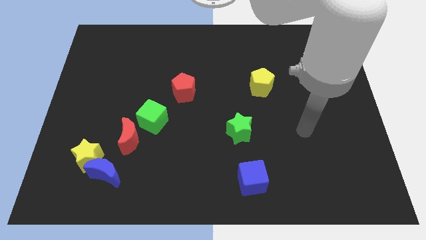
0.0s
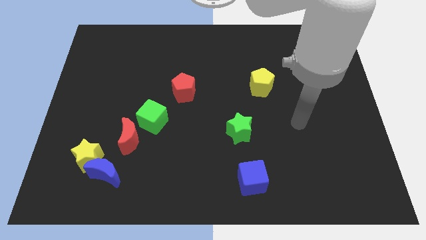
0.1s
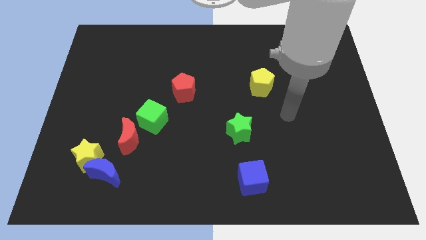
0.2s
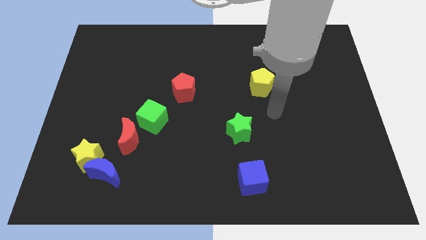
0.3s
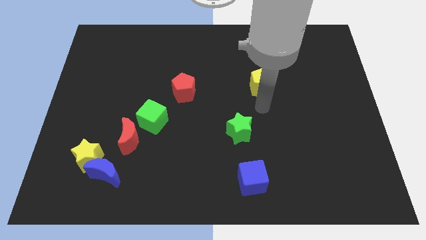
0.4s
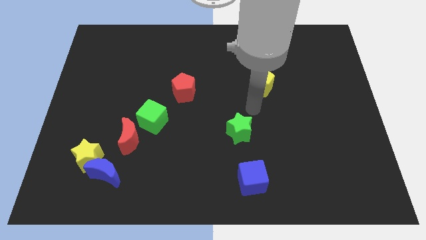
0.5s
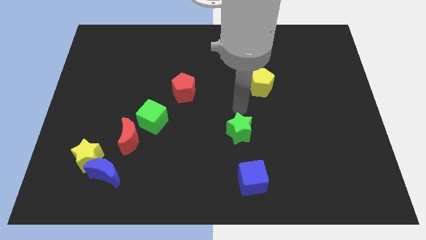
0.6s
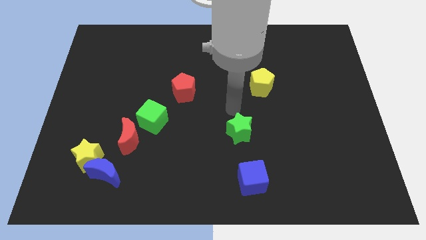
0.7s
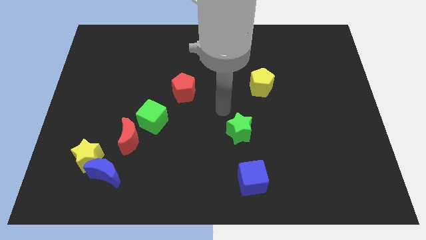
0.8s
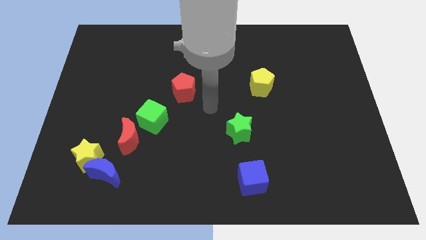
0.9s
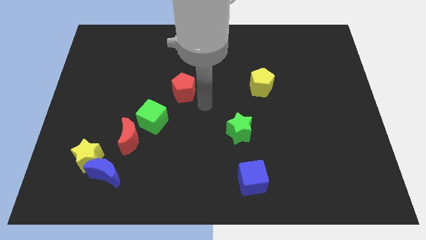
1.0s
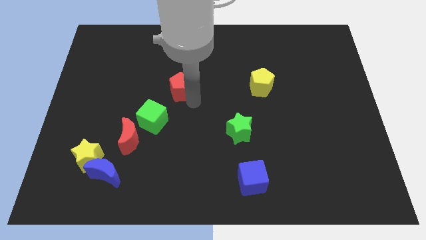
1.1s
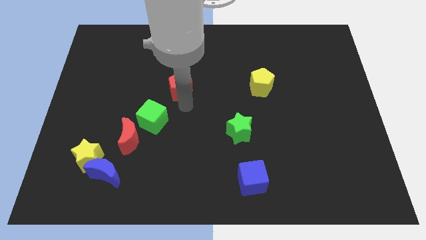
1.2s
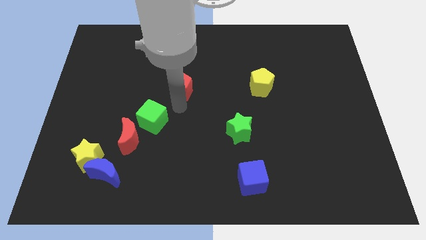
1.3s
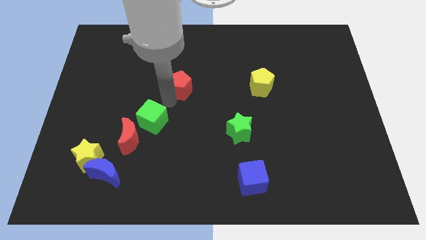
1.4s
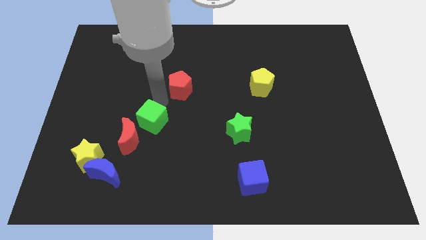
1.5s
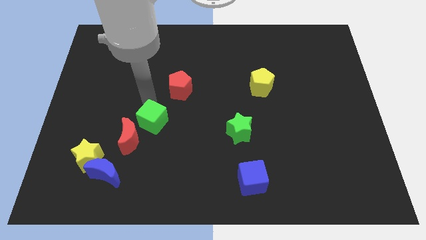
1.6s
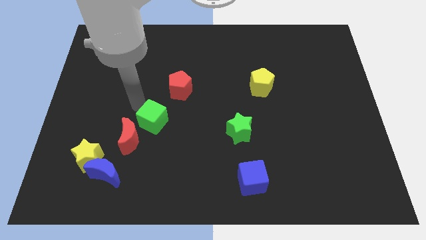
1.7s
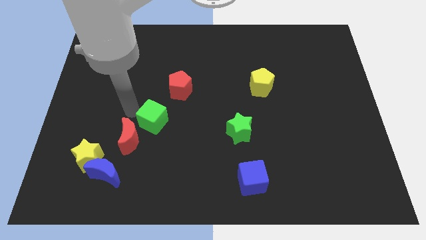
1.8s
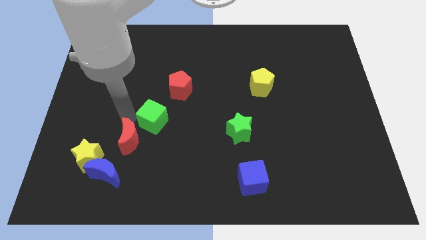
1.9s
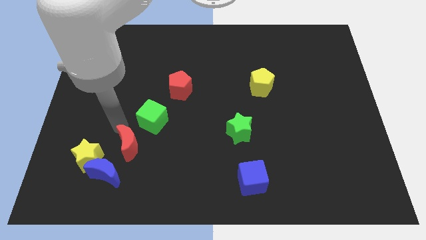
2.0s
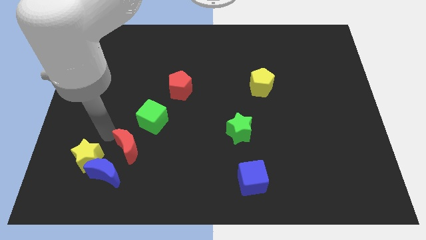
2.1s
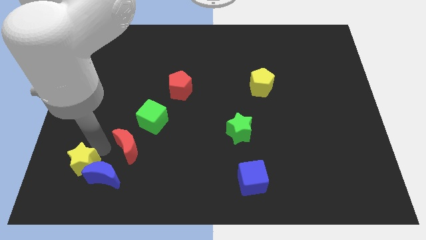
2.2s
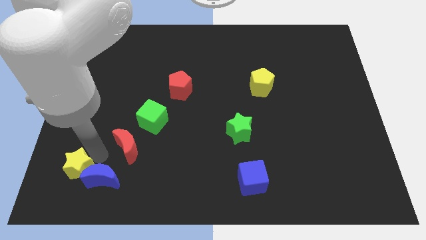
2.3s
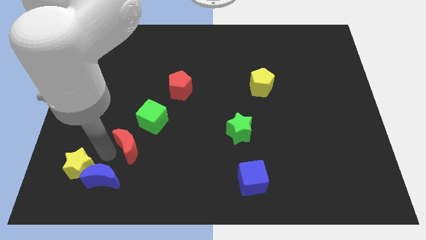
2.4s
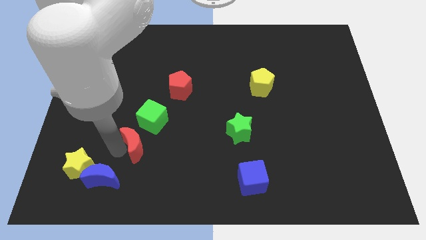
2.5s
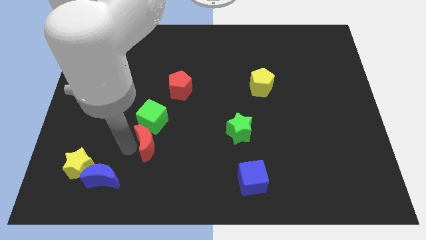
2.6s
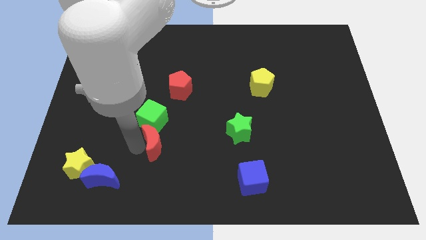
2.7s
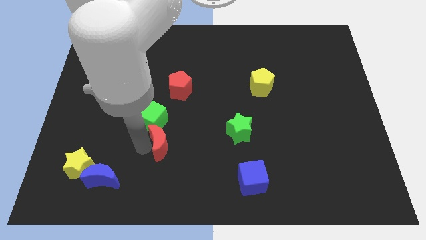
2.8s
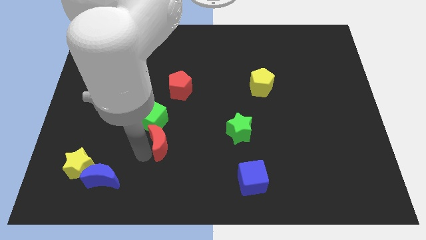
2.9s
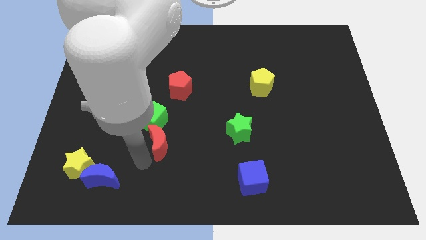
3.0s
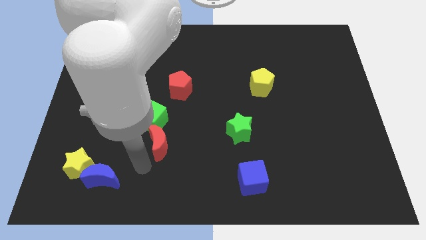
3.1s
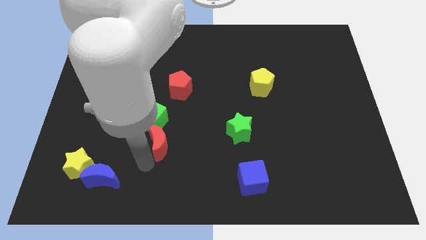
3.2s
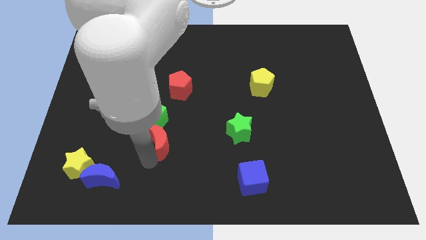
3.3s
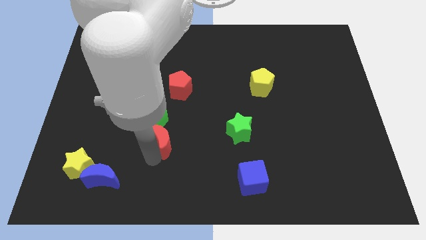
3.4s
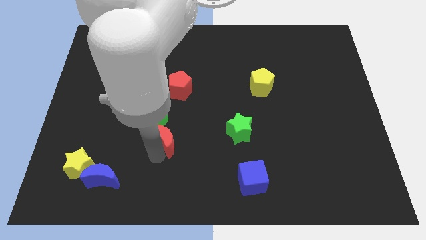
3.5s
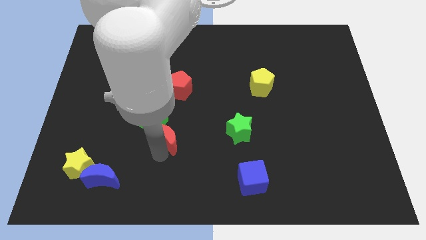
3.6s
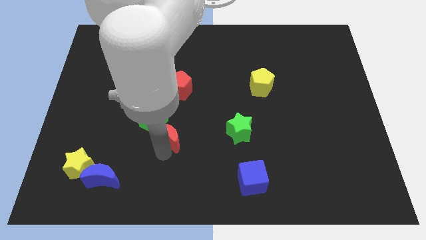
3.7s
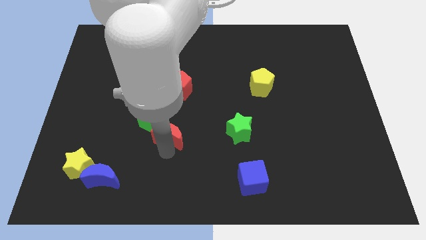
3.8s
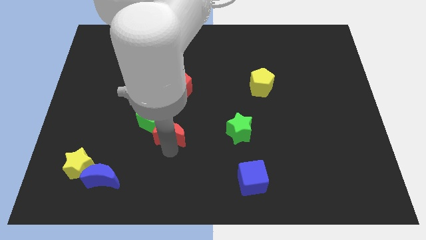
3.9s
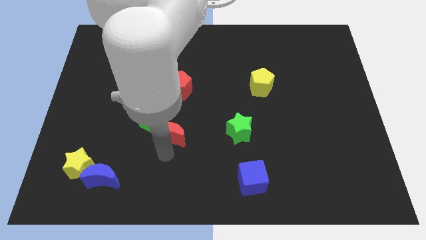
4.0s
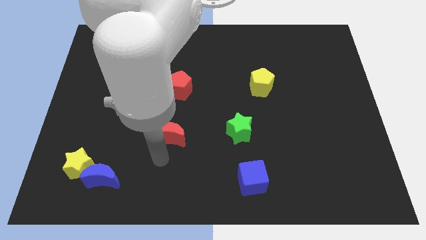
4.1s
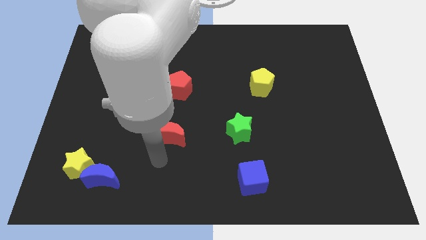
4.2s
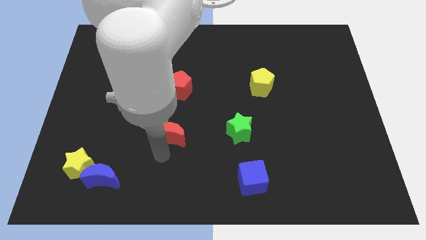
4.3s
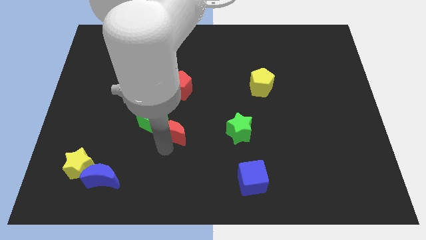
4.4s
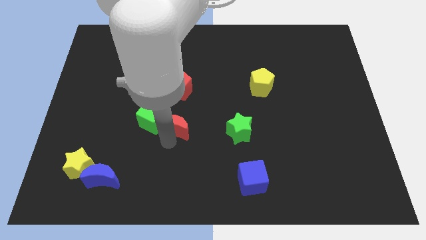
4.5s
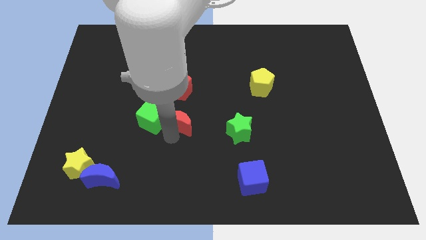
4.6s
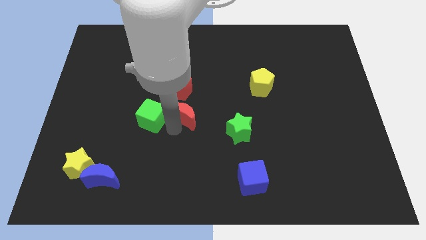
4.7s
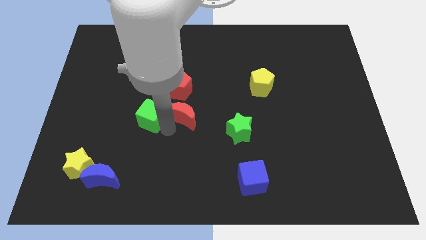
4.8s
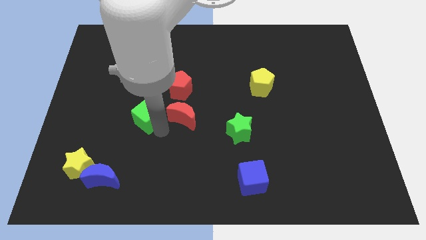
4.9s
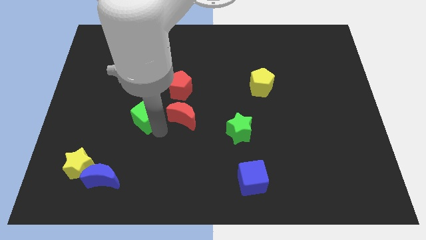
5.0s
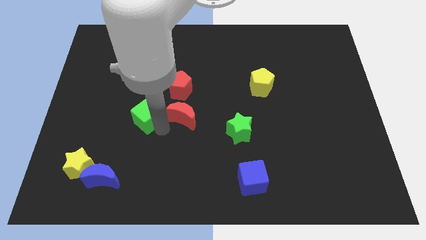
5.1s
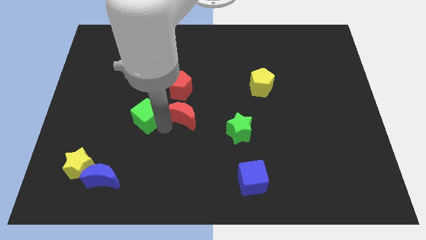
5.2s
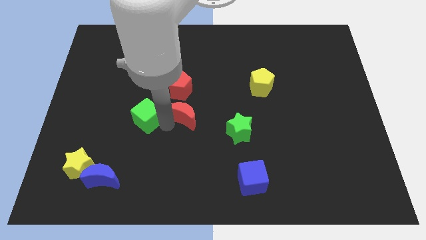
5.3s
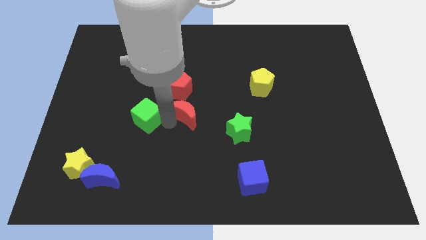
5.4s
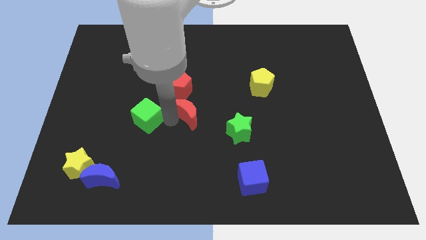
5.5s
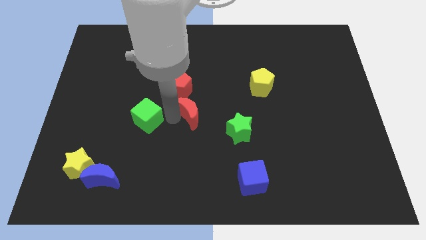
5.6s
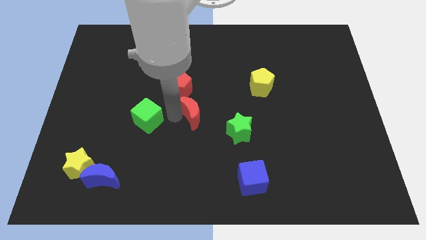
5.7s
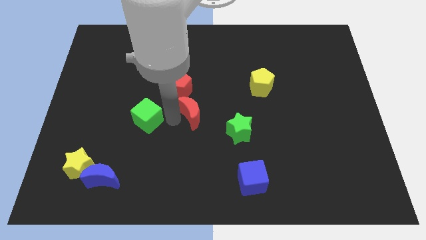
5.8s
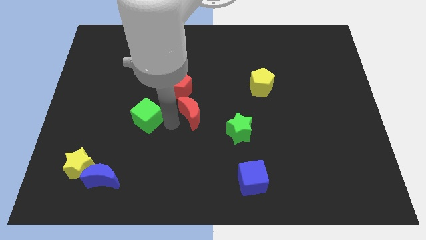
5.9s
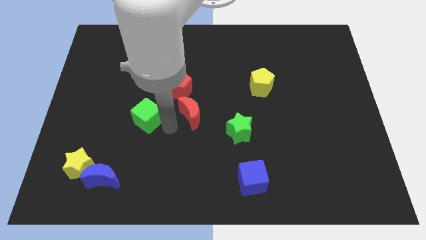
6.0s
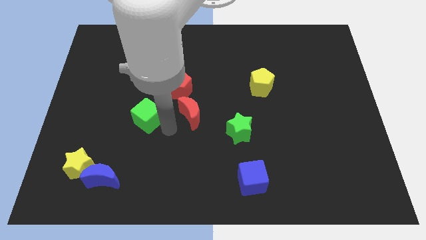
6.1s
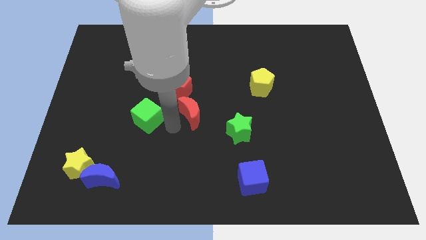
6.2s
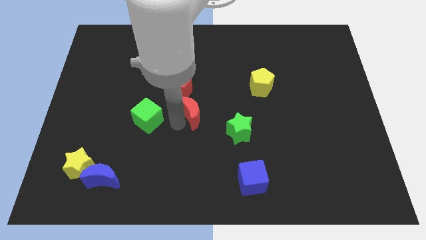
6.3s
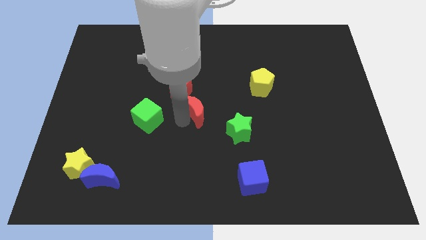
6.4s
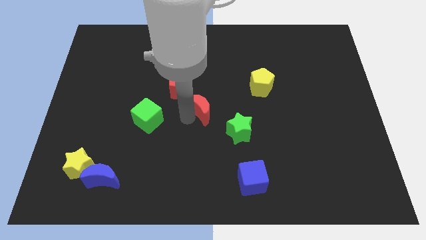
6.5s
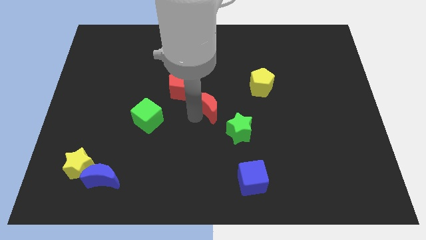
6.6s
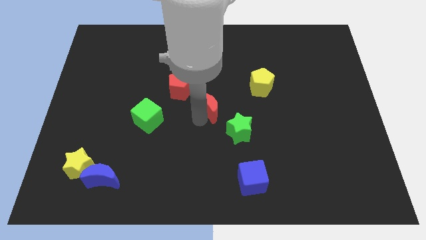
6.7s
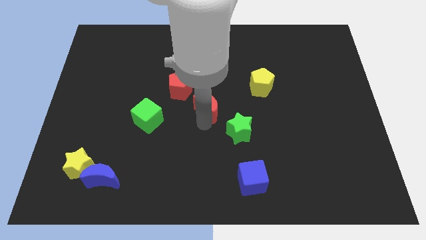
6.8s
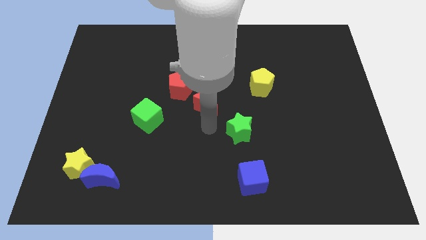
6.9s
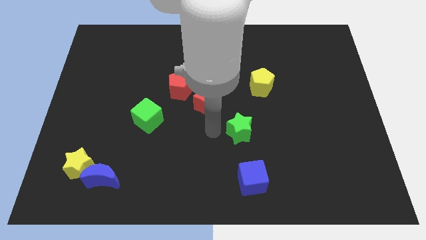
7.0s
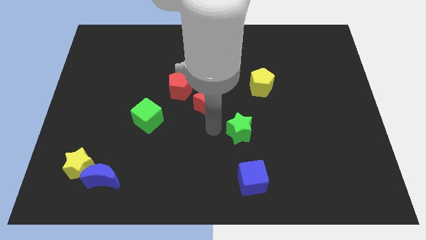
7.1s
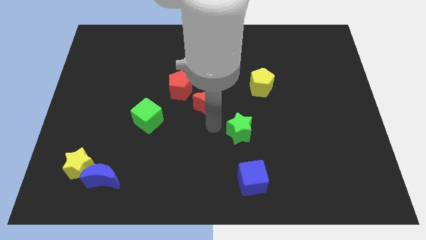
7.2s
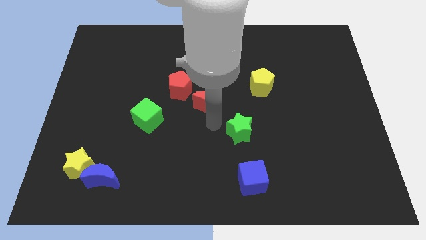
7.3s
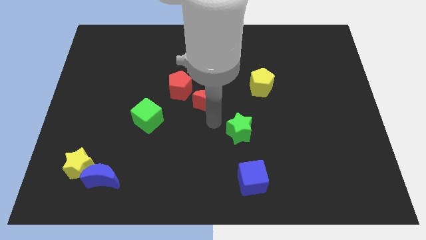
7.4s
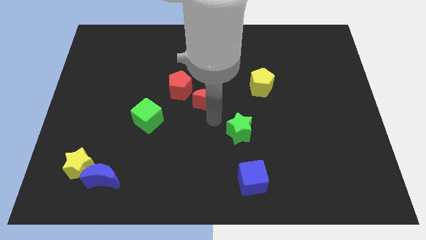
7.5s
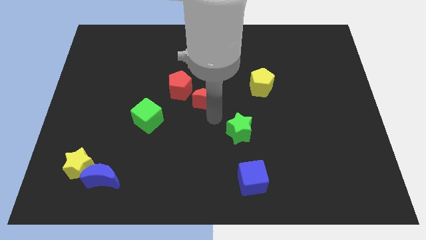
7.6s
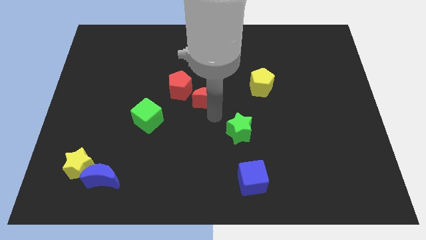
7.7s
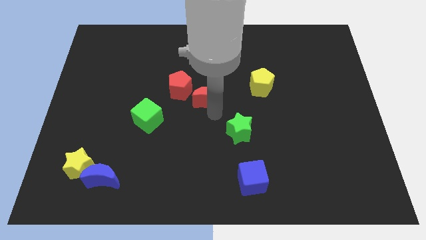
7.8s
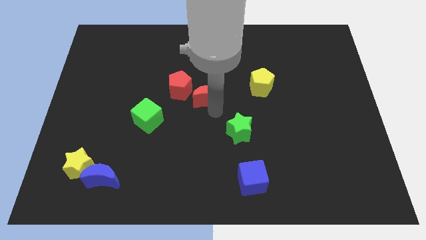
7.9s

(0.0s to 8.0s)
move the red moon just left of the yellow pentagon
